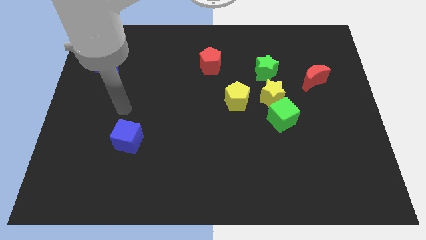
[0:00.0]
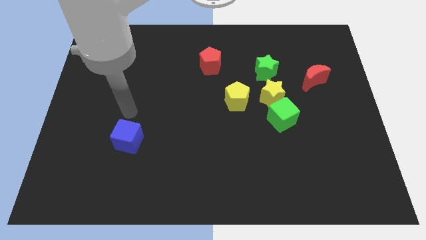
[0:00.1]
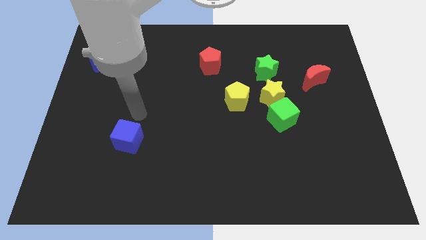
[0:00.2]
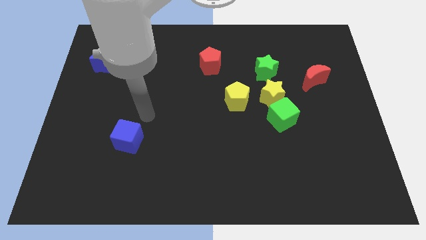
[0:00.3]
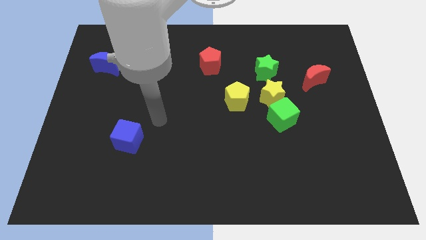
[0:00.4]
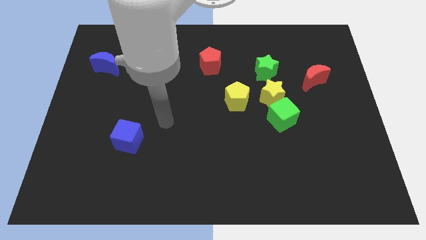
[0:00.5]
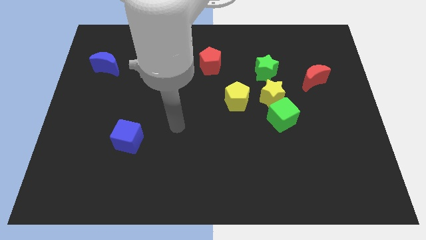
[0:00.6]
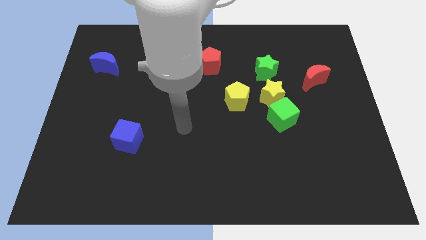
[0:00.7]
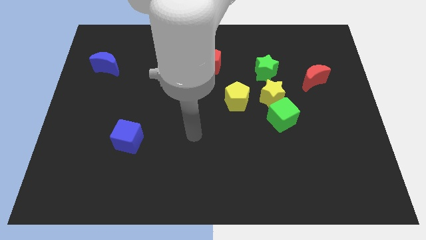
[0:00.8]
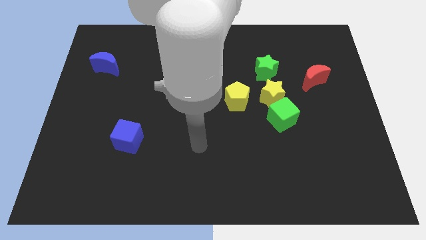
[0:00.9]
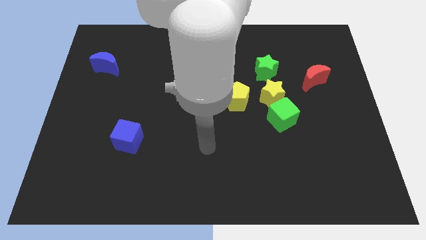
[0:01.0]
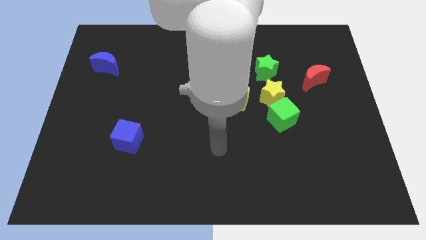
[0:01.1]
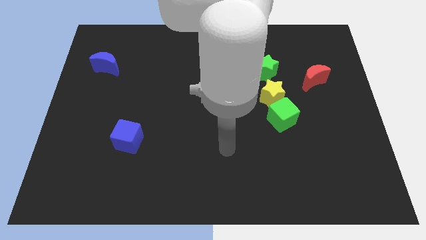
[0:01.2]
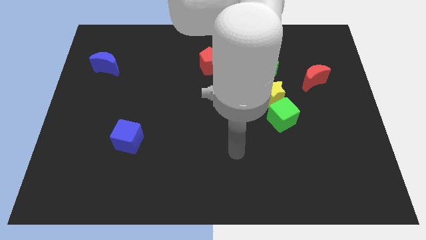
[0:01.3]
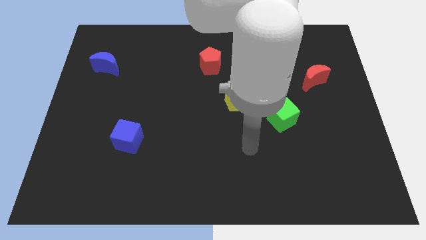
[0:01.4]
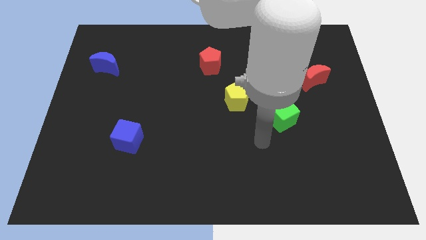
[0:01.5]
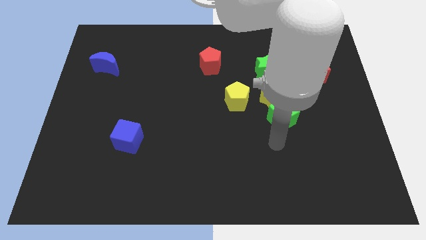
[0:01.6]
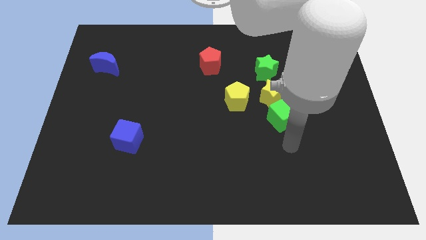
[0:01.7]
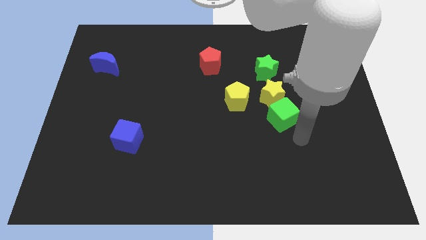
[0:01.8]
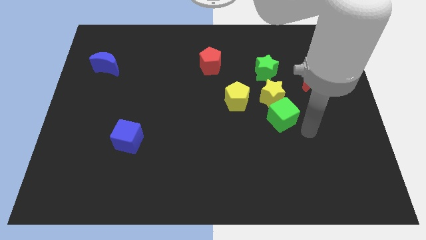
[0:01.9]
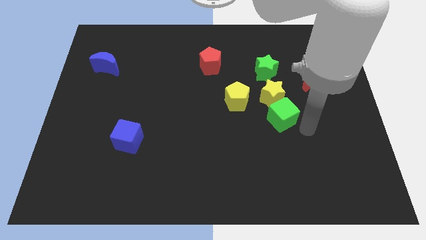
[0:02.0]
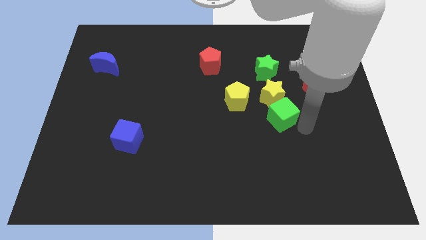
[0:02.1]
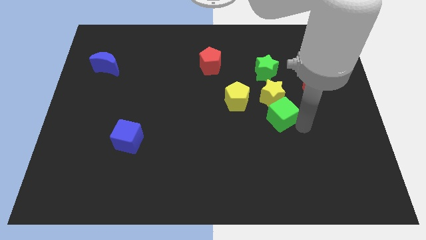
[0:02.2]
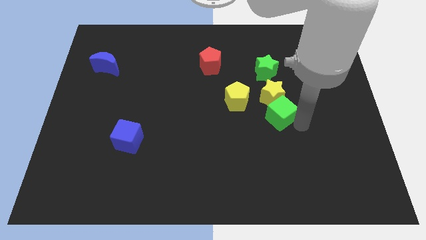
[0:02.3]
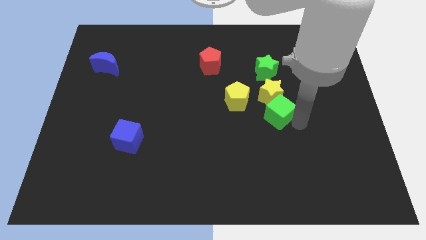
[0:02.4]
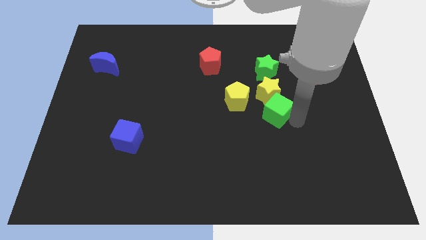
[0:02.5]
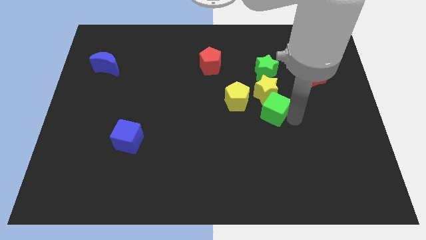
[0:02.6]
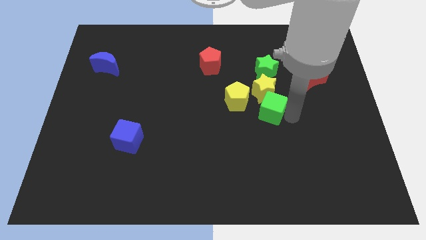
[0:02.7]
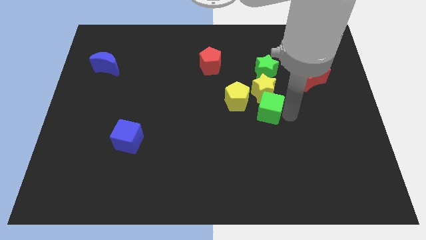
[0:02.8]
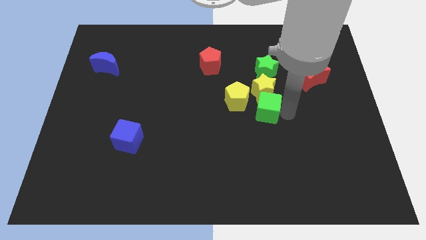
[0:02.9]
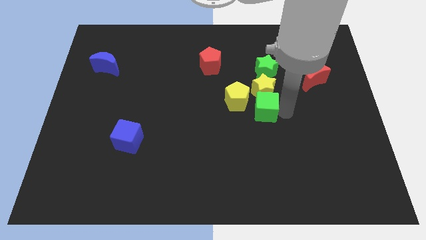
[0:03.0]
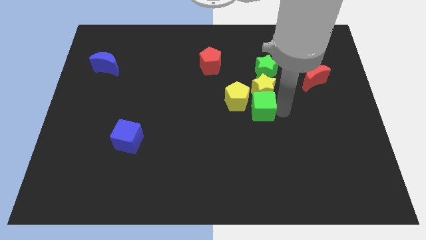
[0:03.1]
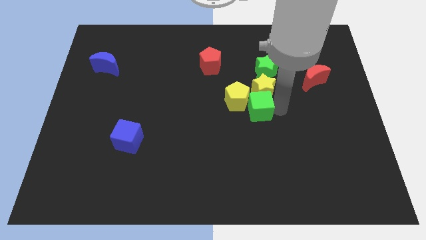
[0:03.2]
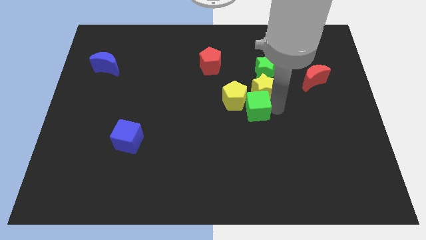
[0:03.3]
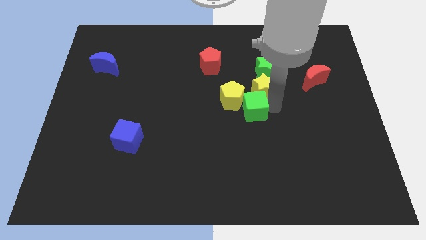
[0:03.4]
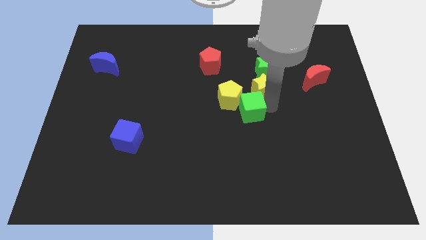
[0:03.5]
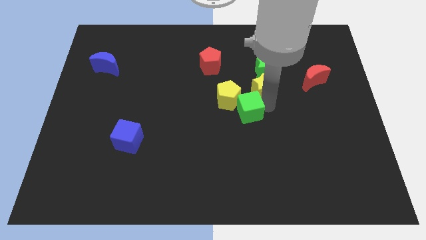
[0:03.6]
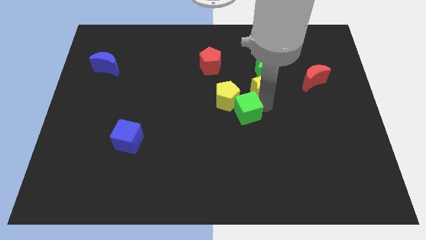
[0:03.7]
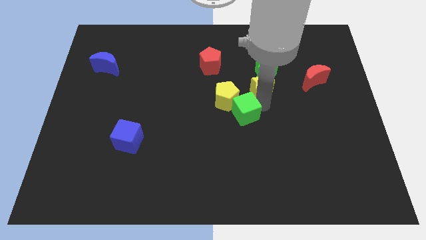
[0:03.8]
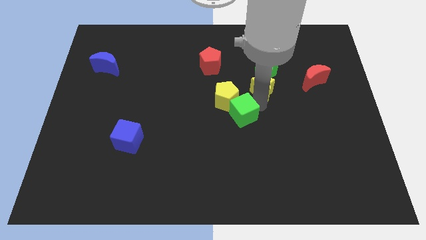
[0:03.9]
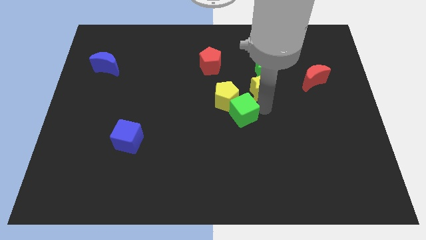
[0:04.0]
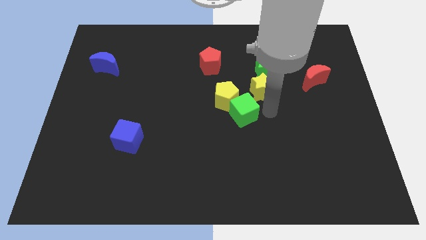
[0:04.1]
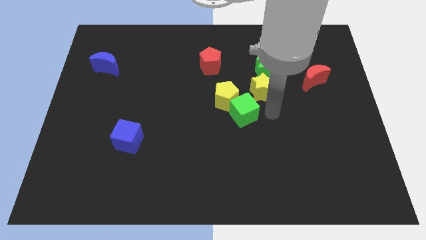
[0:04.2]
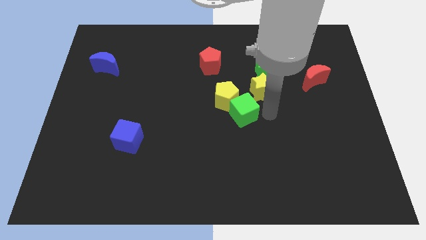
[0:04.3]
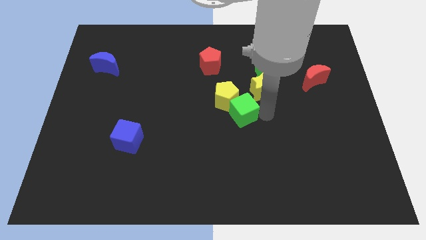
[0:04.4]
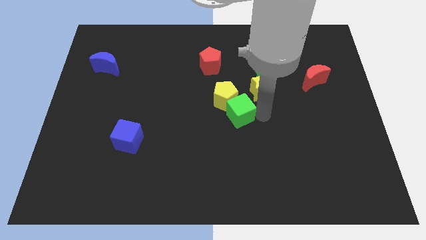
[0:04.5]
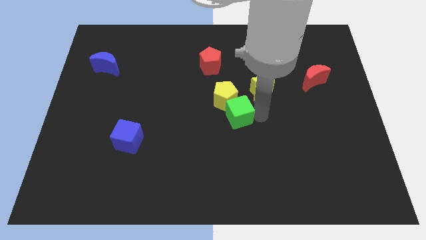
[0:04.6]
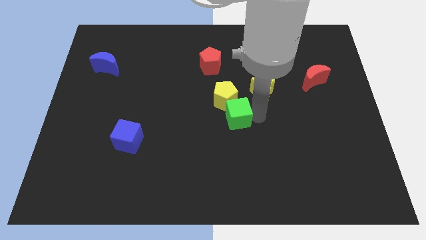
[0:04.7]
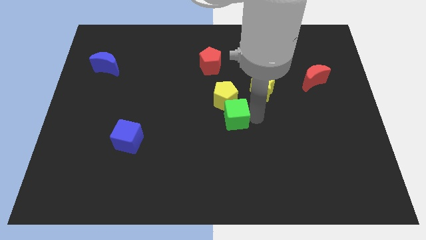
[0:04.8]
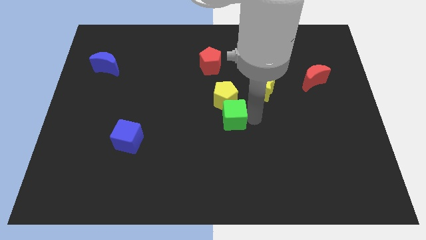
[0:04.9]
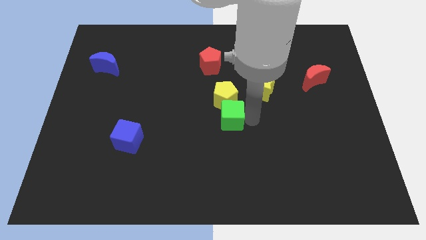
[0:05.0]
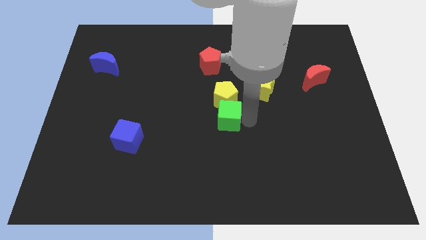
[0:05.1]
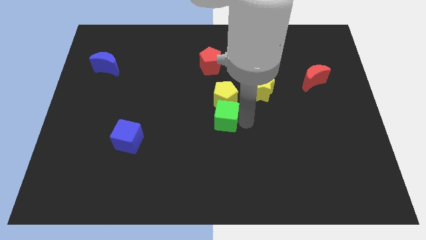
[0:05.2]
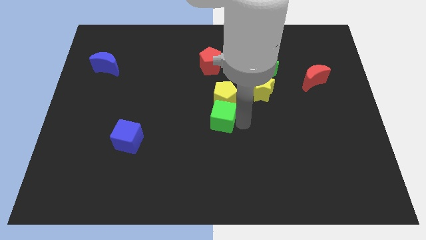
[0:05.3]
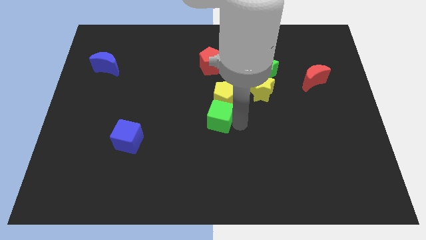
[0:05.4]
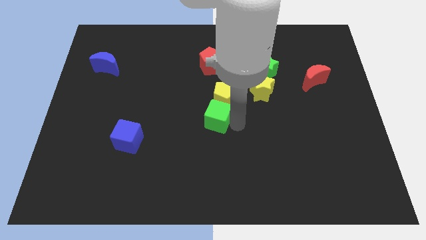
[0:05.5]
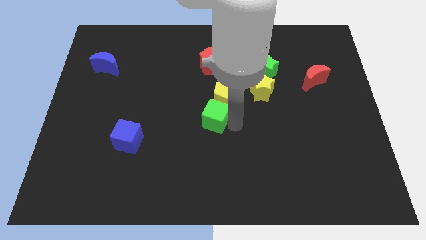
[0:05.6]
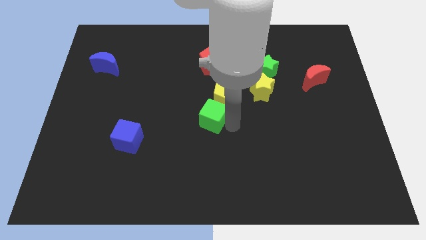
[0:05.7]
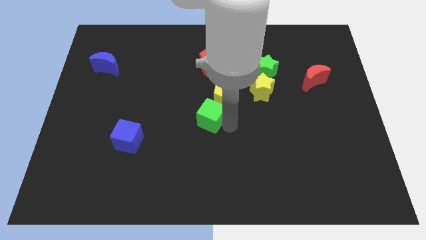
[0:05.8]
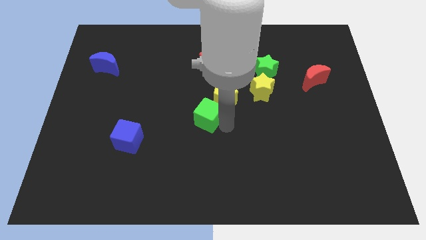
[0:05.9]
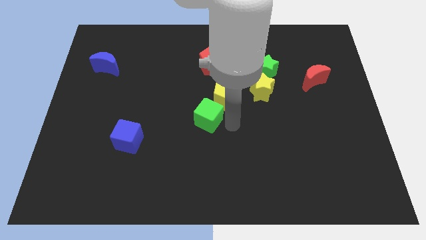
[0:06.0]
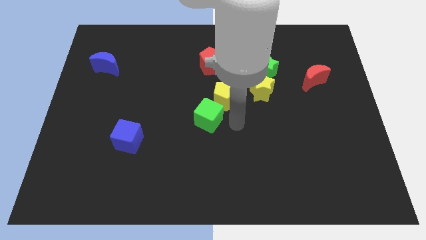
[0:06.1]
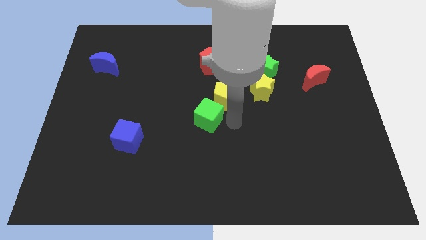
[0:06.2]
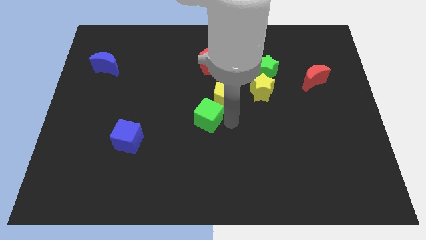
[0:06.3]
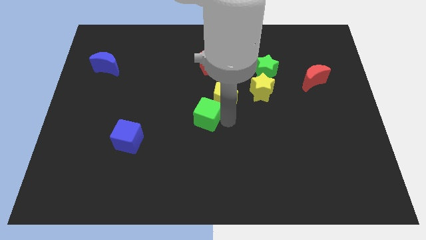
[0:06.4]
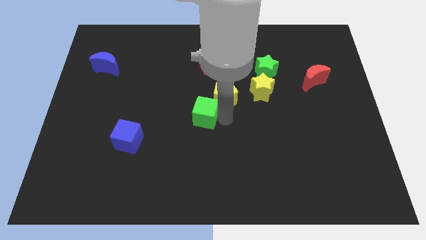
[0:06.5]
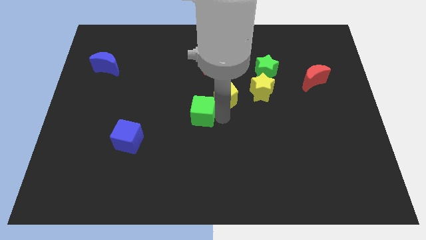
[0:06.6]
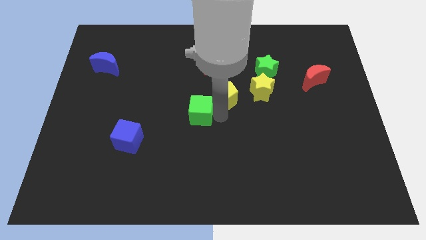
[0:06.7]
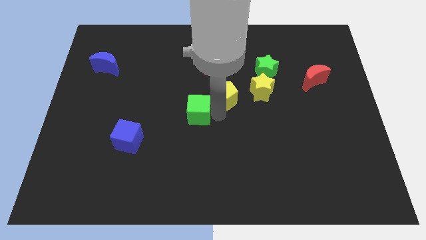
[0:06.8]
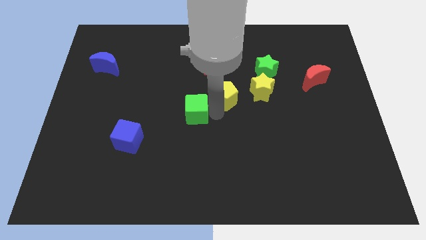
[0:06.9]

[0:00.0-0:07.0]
move the green cube left

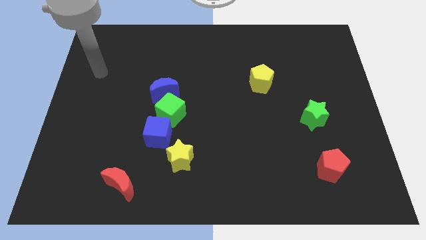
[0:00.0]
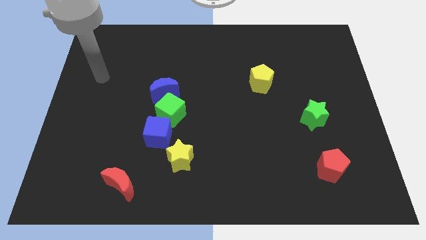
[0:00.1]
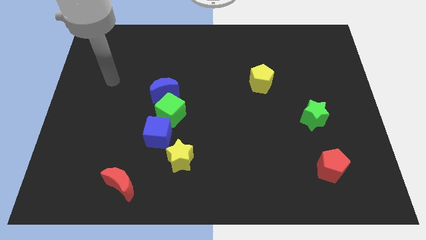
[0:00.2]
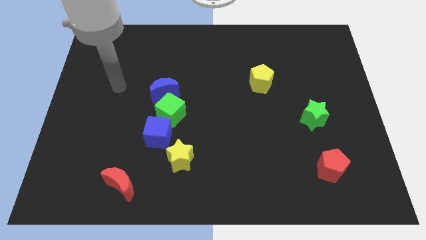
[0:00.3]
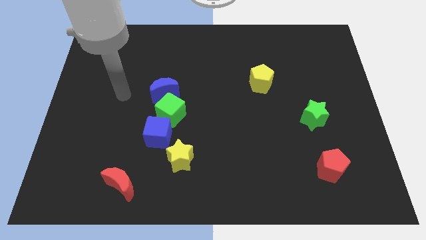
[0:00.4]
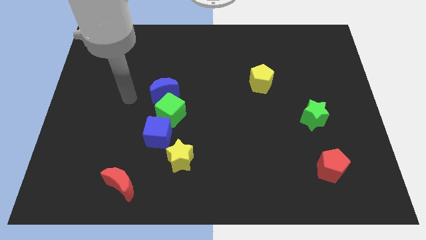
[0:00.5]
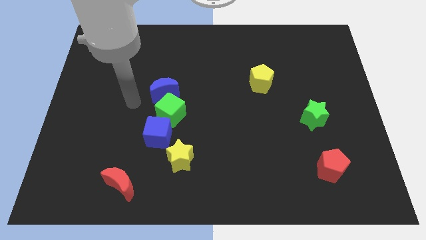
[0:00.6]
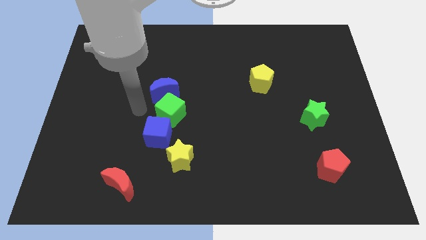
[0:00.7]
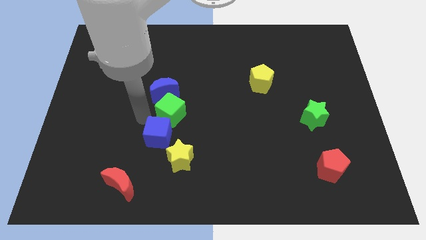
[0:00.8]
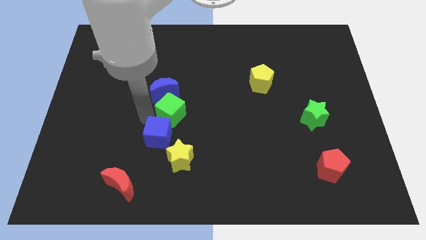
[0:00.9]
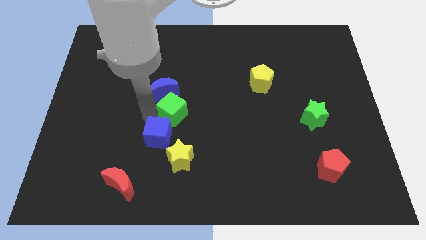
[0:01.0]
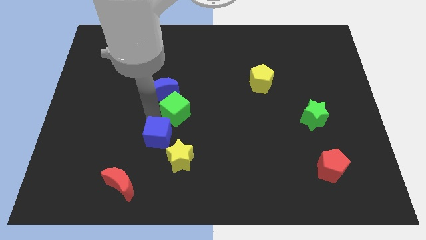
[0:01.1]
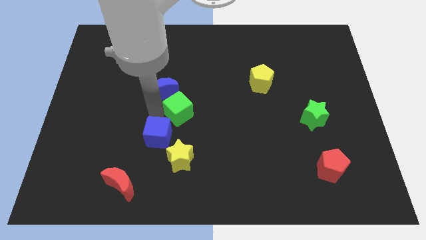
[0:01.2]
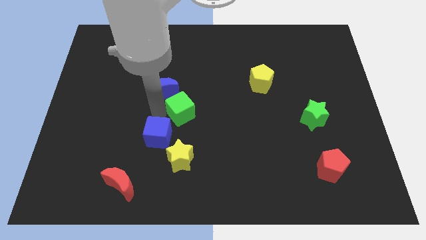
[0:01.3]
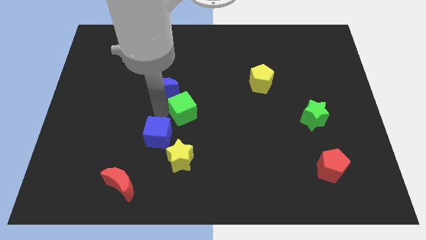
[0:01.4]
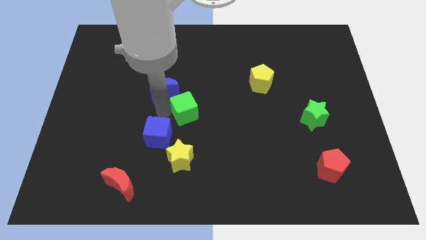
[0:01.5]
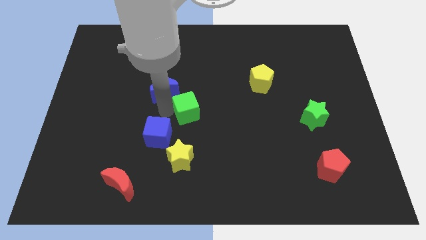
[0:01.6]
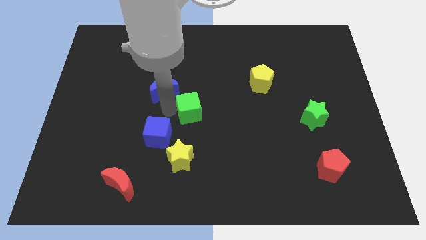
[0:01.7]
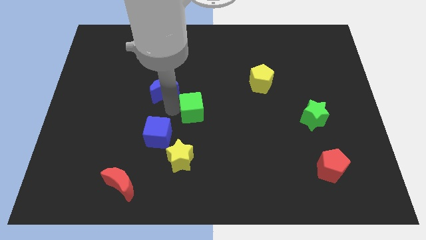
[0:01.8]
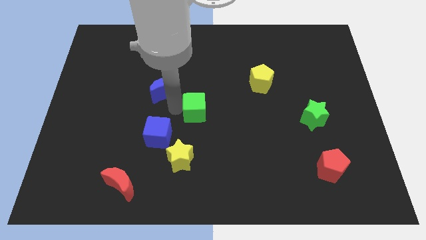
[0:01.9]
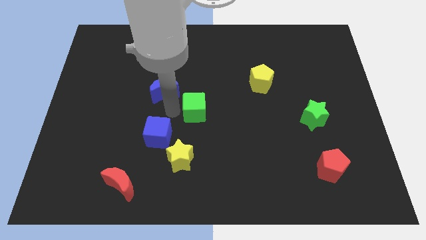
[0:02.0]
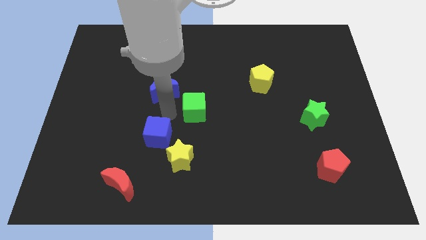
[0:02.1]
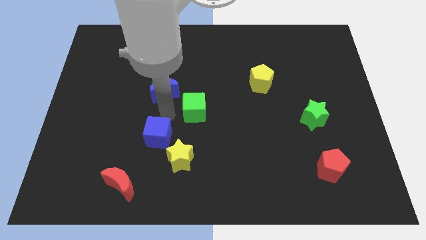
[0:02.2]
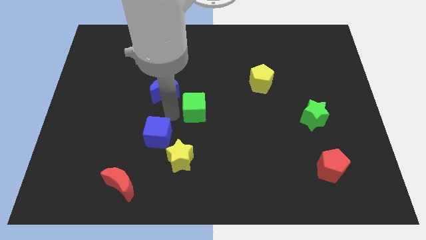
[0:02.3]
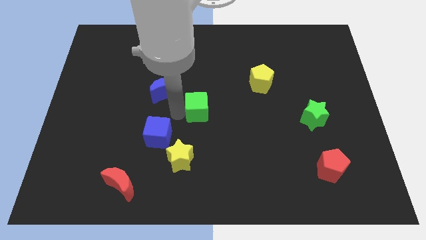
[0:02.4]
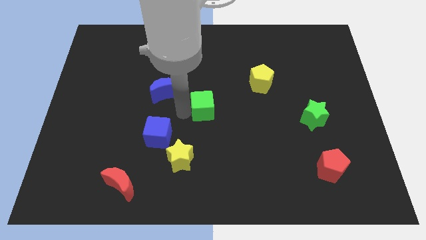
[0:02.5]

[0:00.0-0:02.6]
push the green cube right slightly
